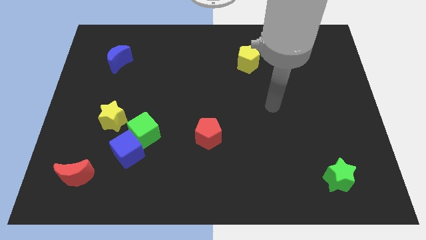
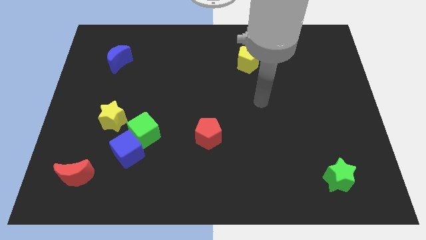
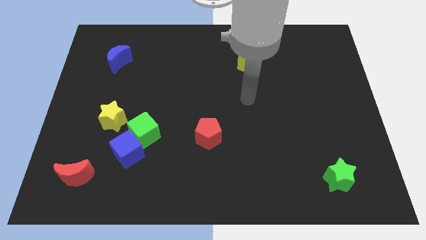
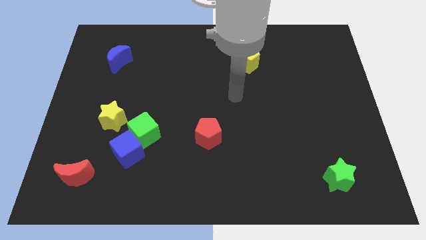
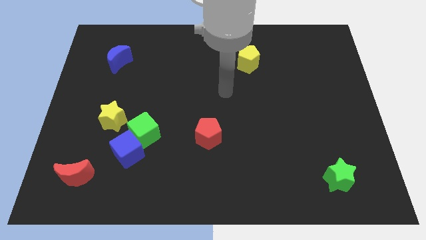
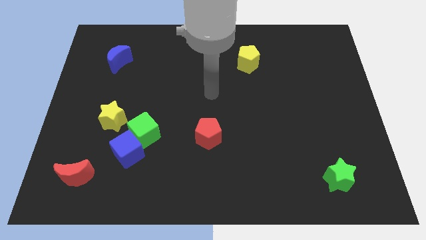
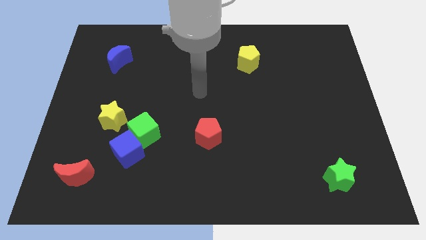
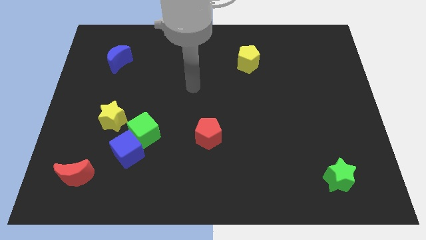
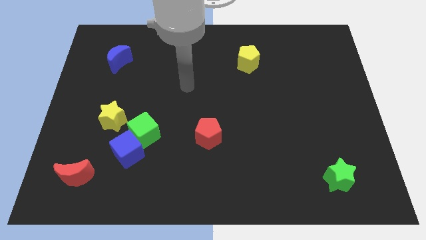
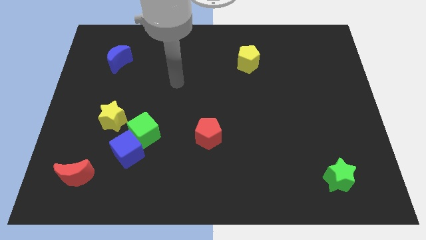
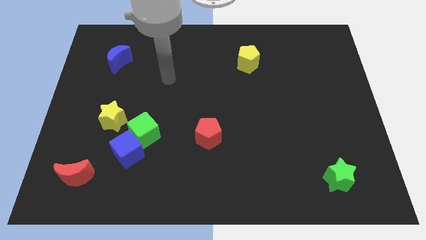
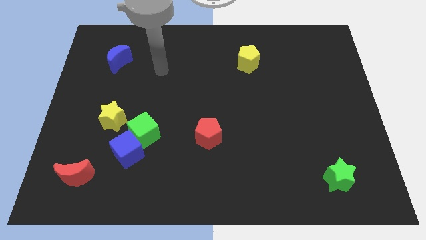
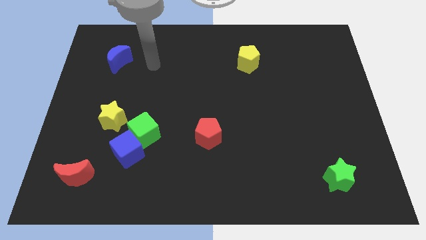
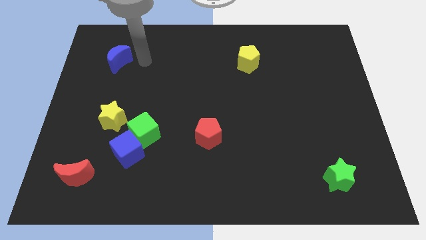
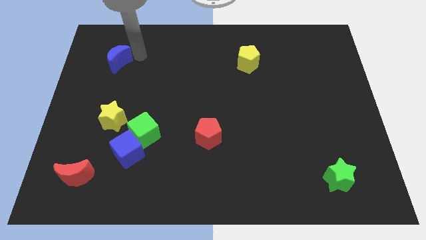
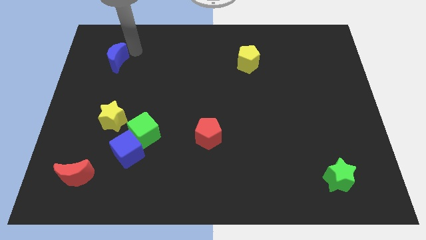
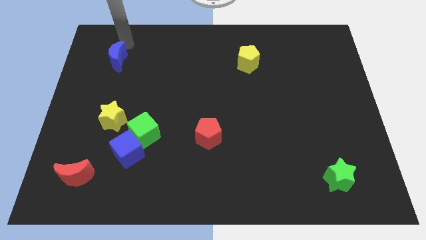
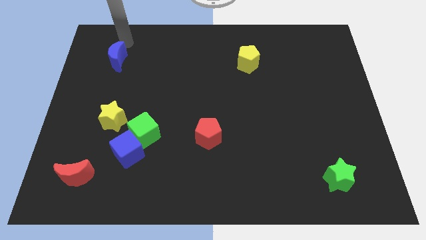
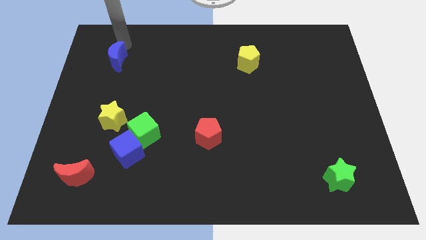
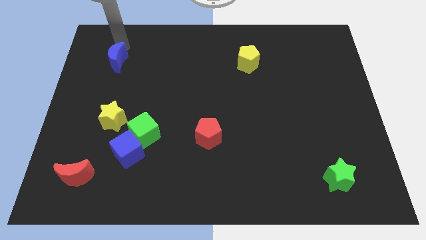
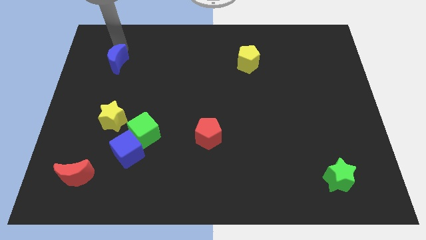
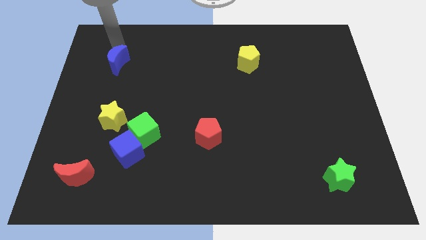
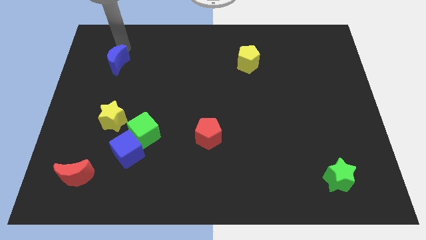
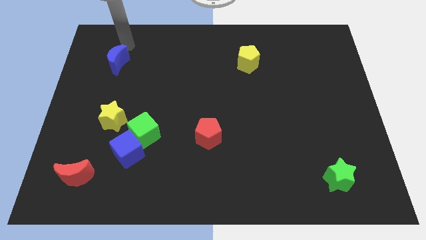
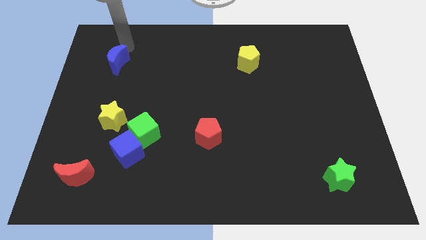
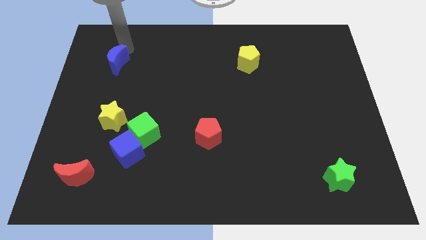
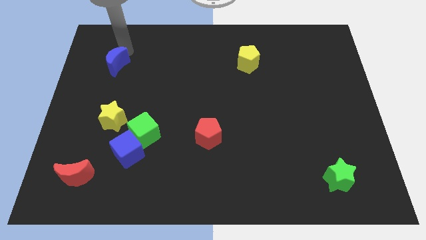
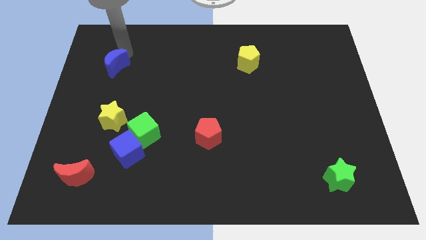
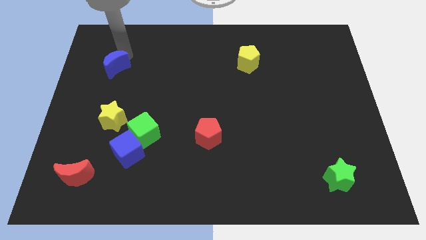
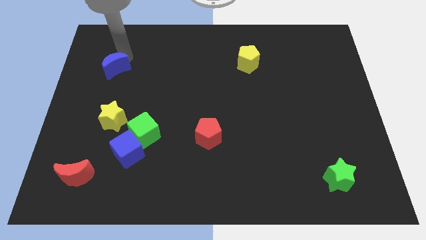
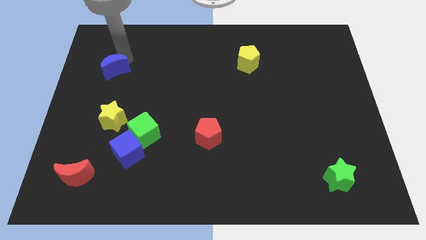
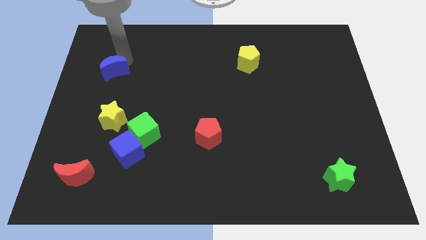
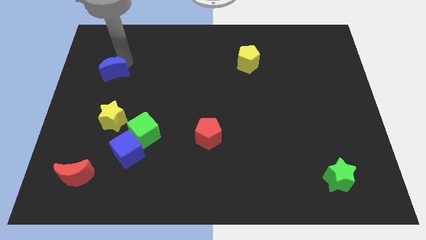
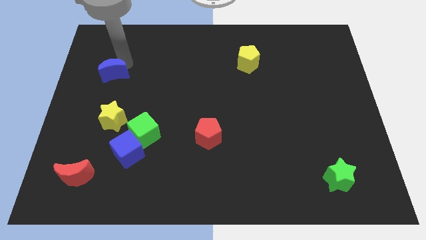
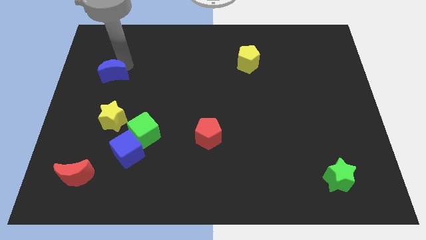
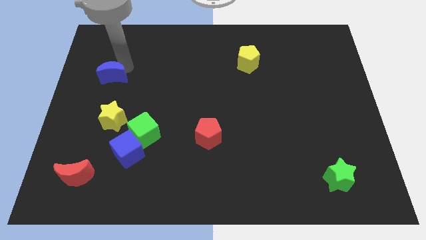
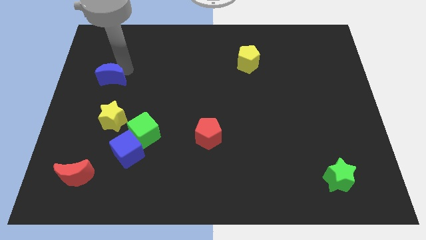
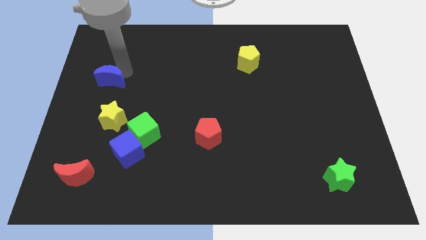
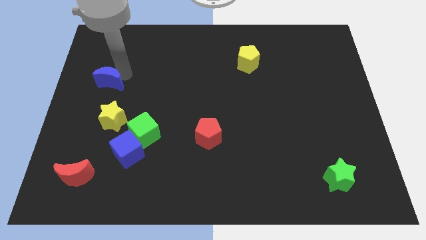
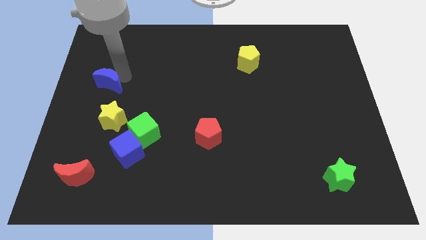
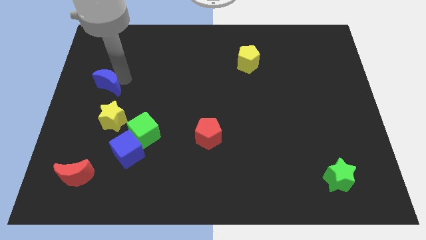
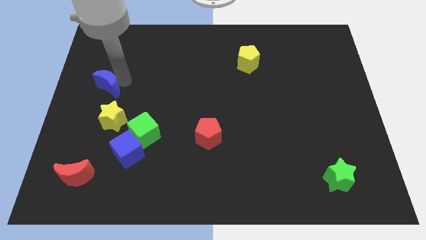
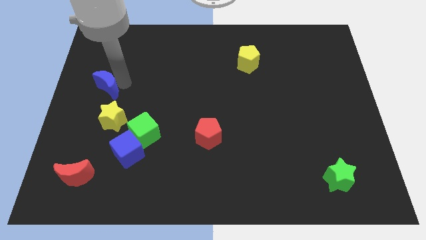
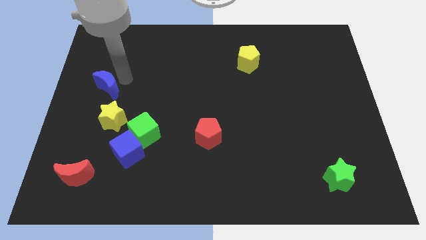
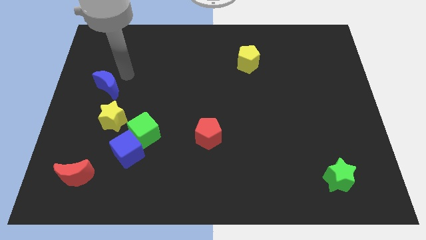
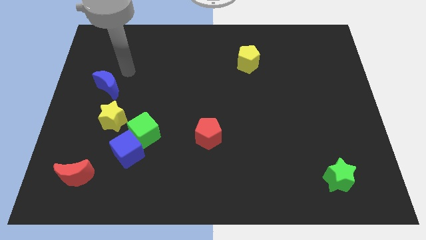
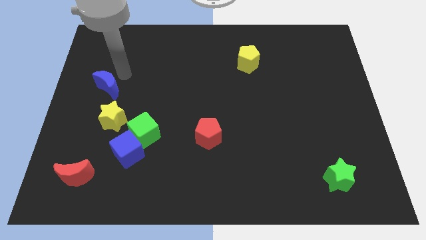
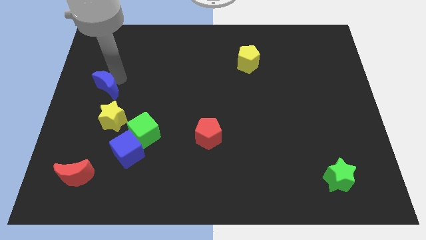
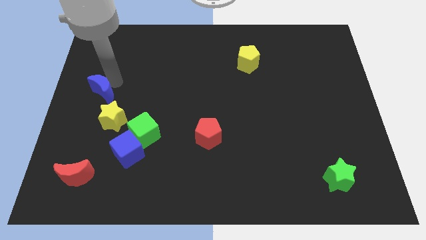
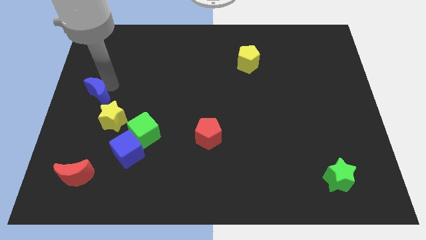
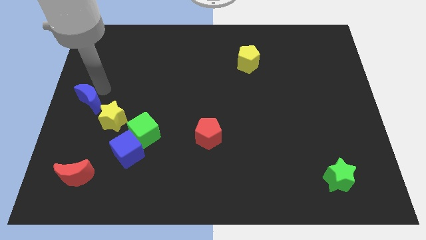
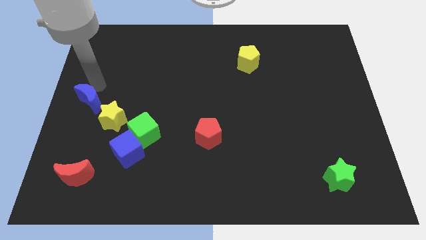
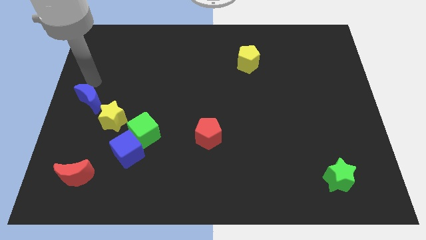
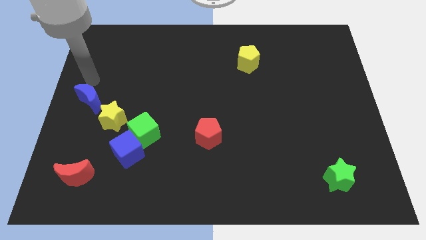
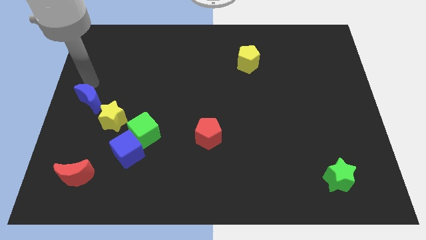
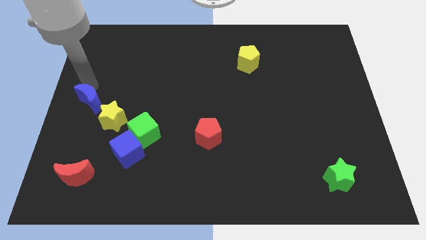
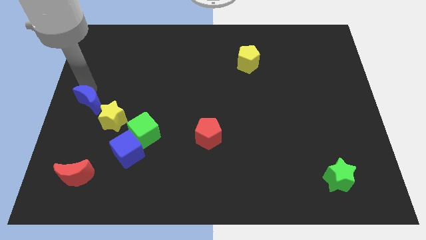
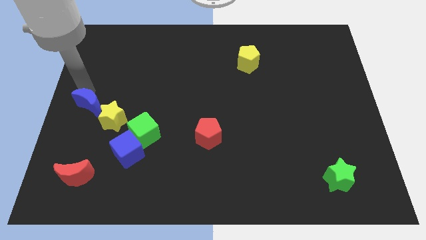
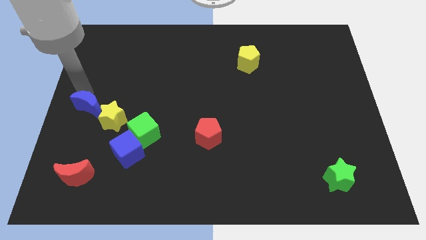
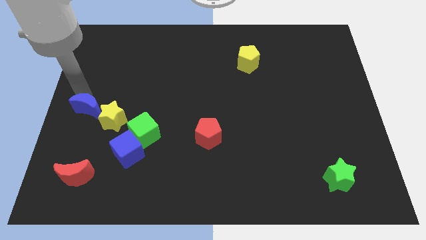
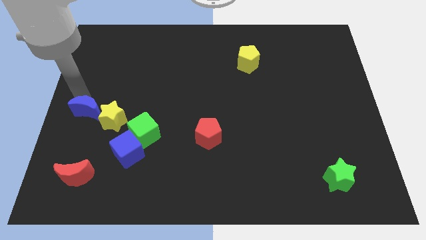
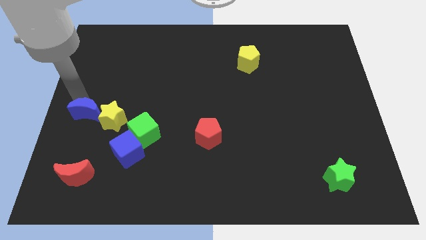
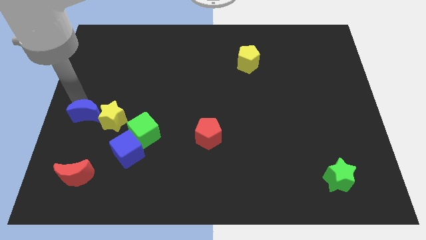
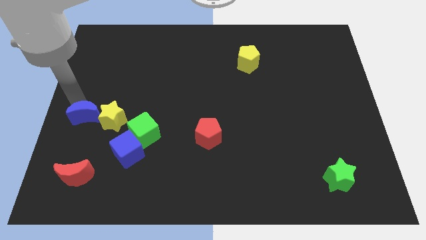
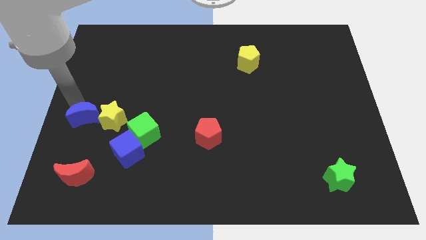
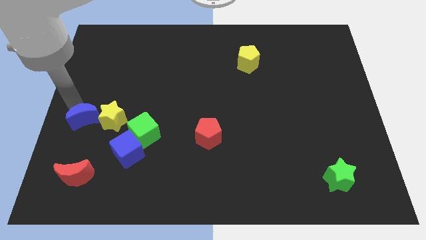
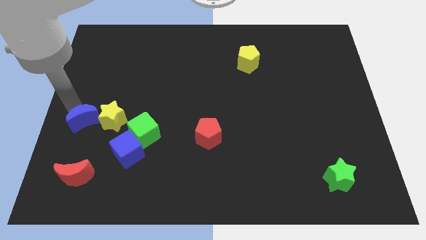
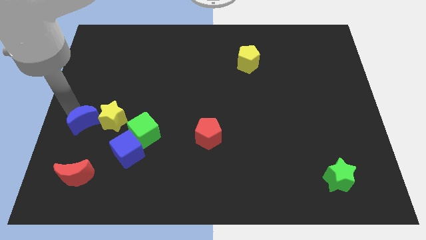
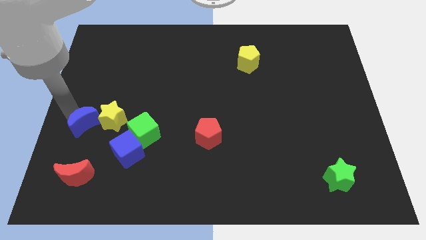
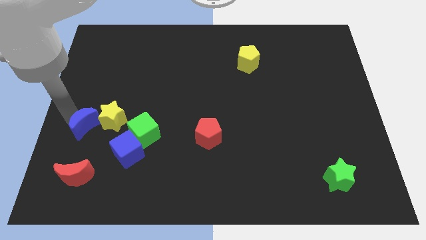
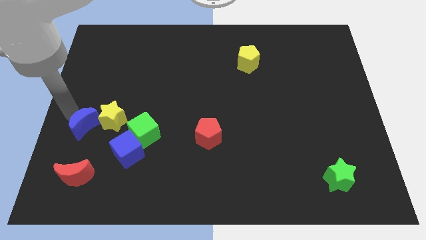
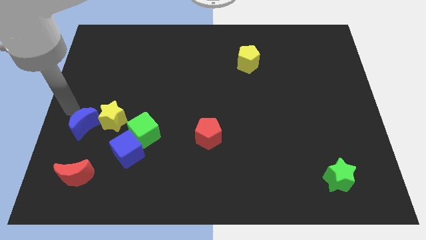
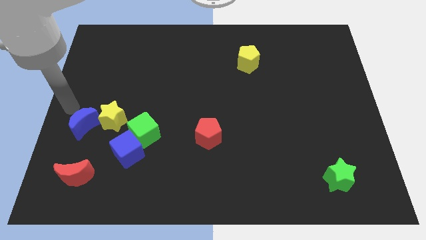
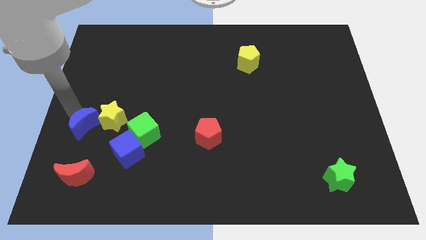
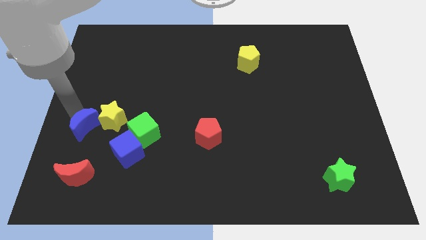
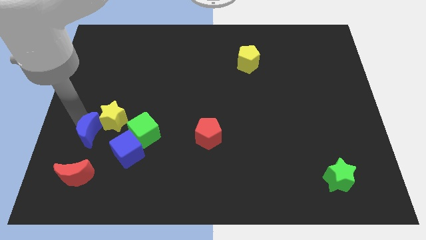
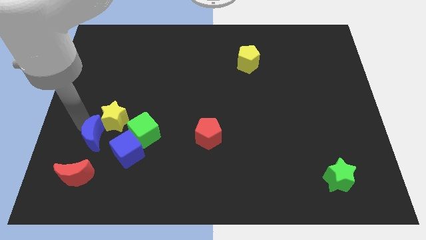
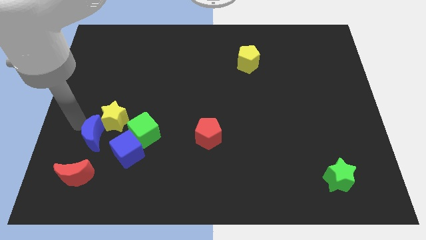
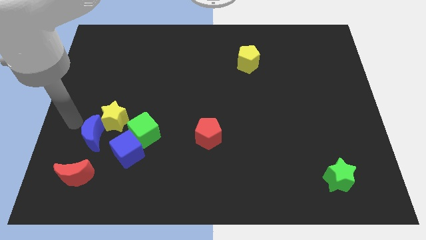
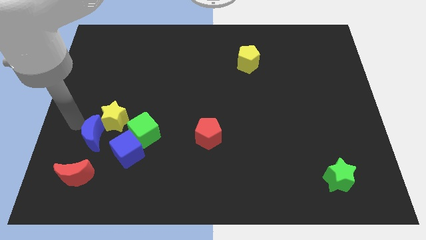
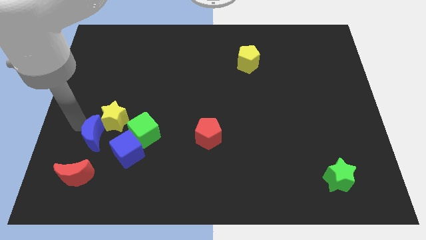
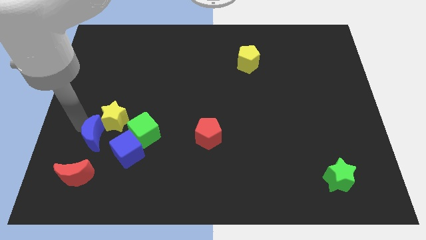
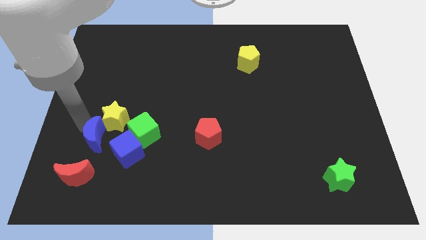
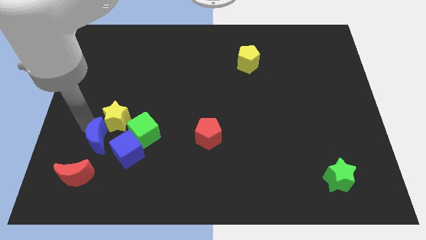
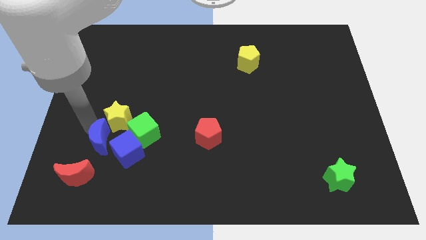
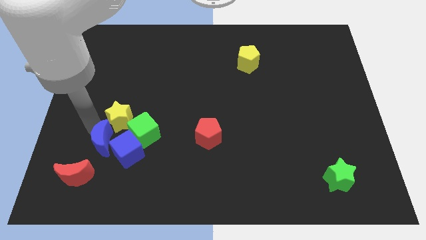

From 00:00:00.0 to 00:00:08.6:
slide the blue moon to the bottom left of the green cube

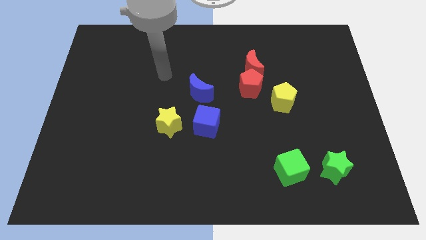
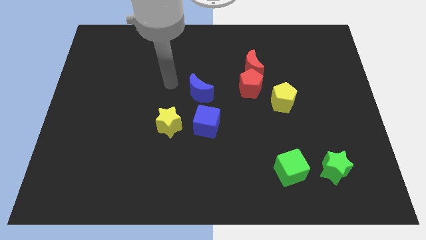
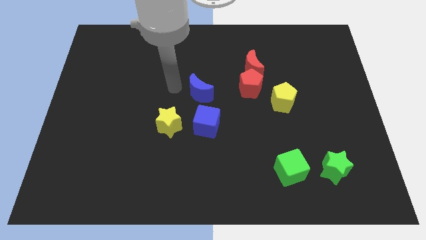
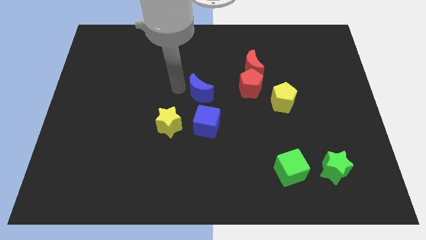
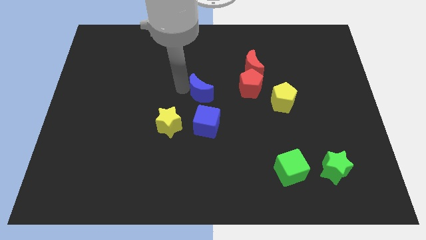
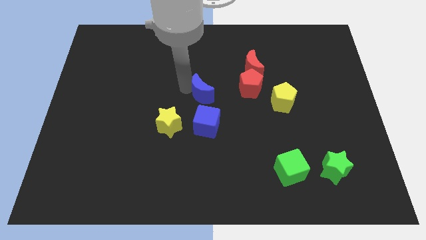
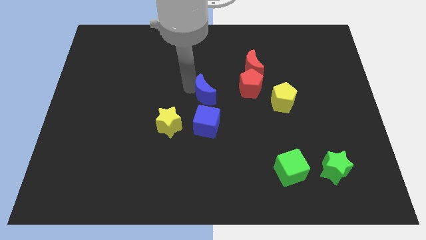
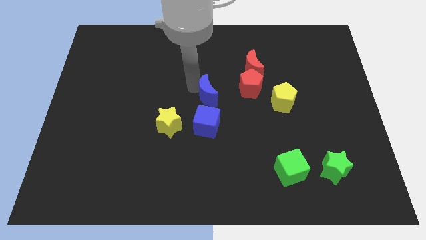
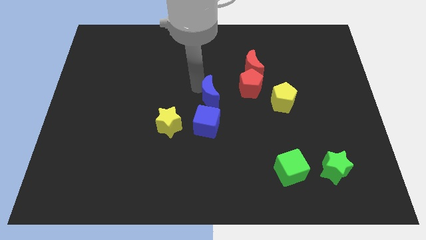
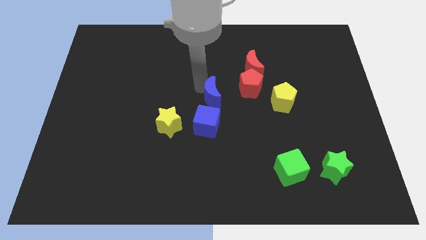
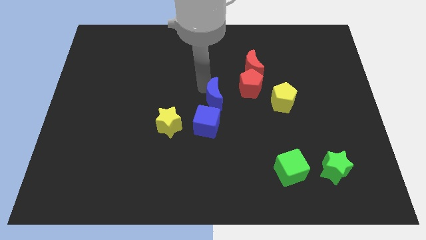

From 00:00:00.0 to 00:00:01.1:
push the blue moon just left of the yellow pentagon
